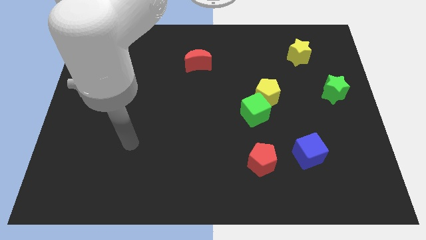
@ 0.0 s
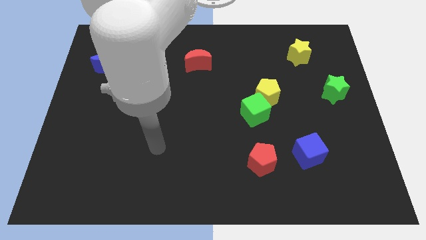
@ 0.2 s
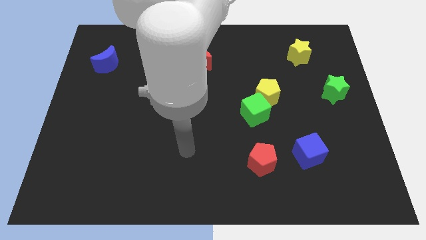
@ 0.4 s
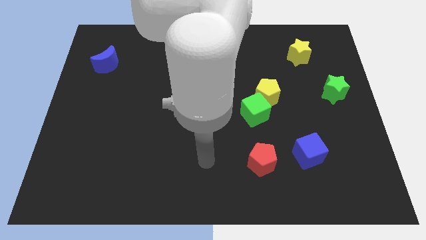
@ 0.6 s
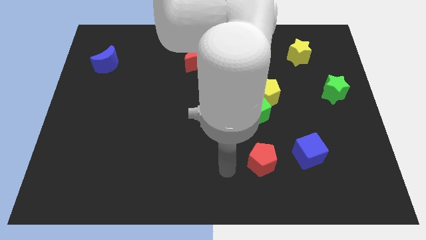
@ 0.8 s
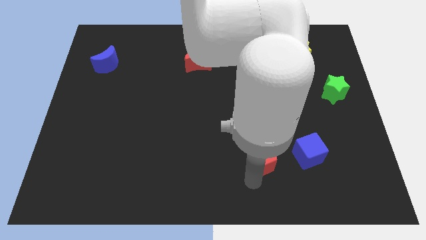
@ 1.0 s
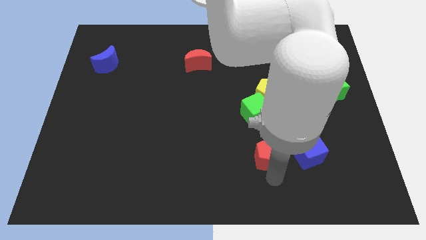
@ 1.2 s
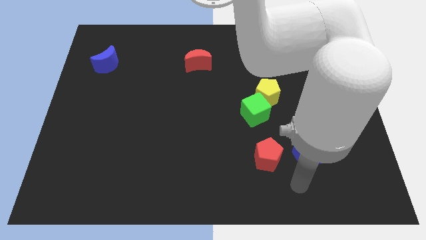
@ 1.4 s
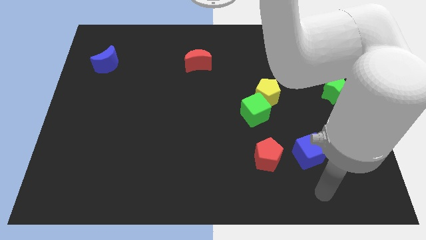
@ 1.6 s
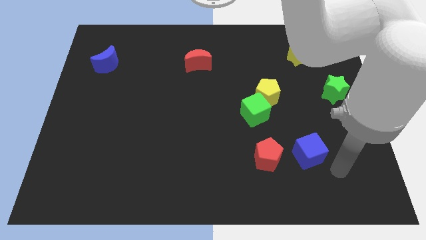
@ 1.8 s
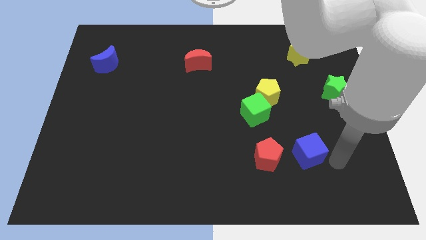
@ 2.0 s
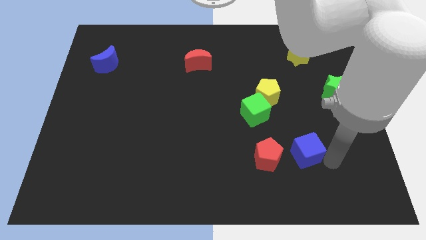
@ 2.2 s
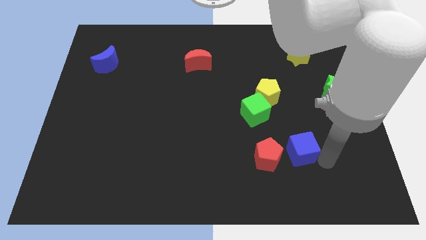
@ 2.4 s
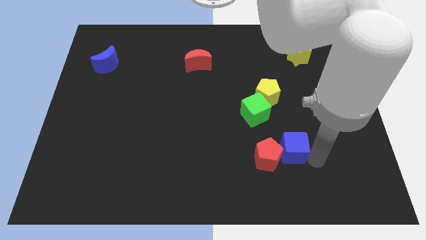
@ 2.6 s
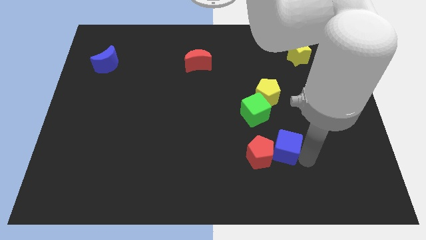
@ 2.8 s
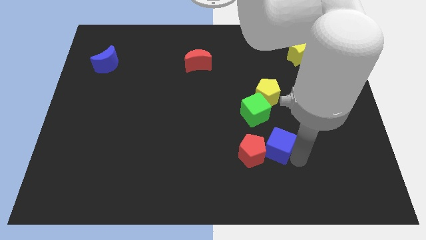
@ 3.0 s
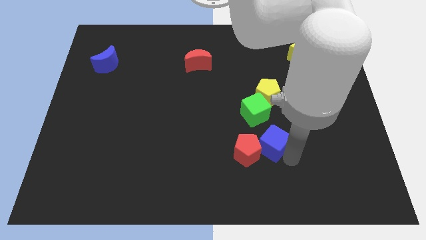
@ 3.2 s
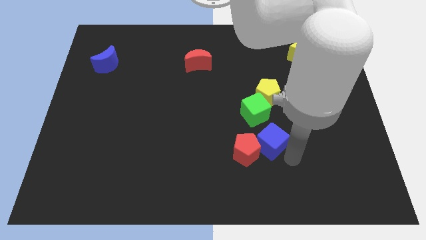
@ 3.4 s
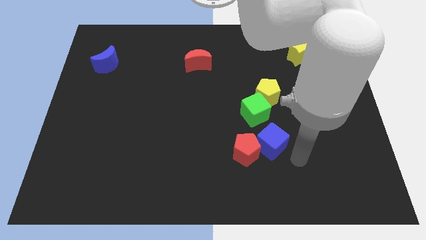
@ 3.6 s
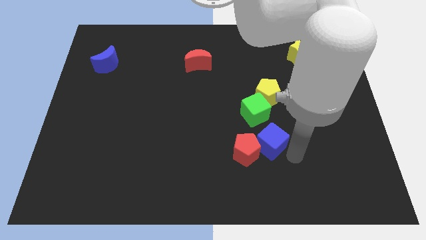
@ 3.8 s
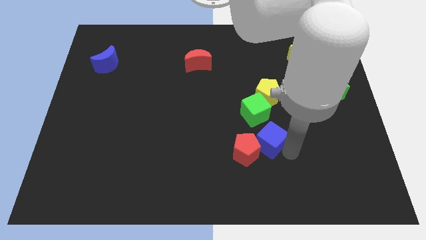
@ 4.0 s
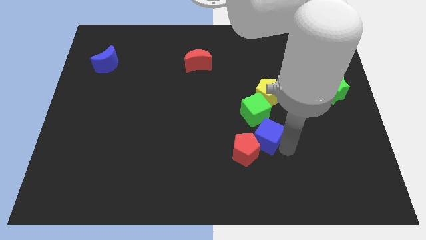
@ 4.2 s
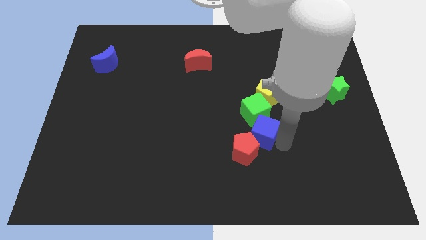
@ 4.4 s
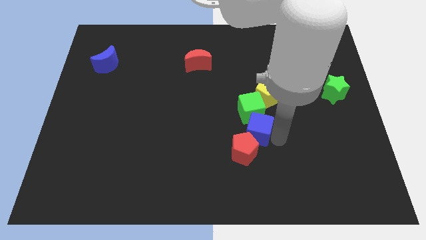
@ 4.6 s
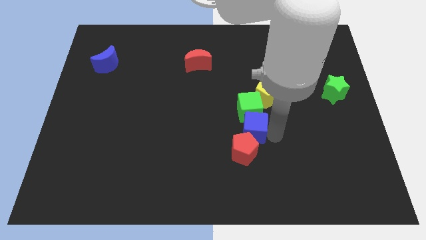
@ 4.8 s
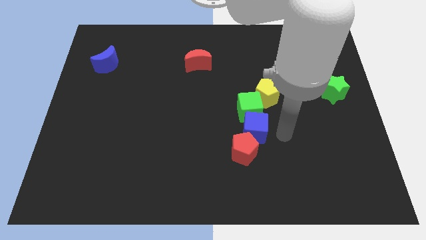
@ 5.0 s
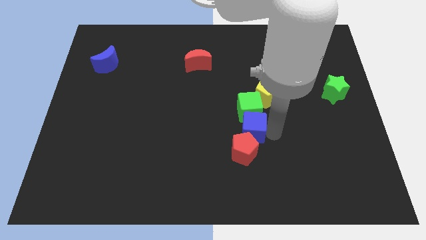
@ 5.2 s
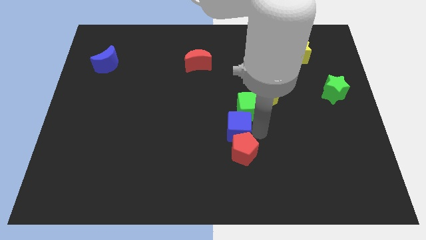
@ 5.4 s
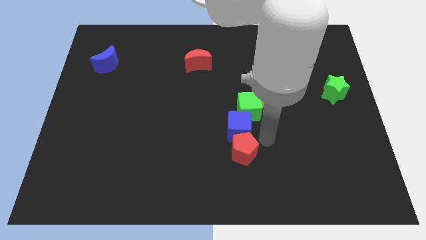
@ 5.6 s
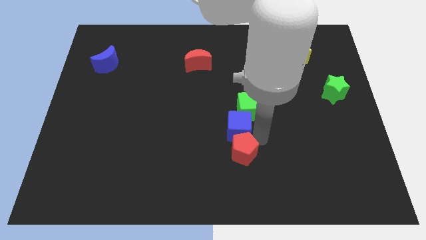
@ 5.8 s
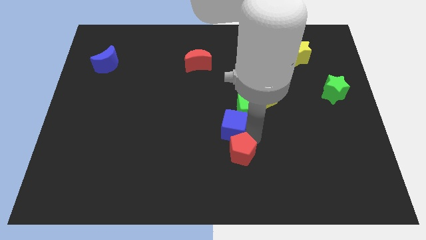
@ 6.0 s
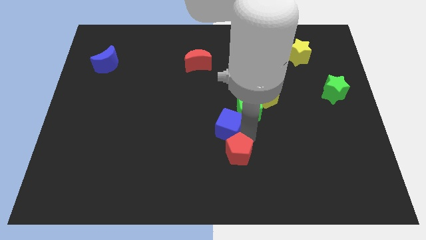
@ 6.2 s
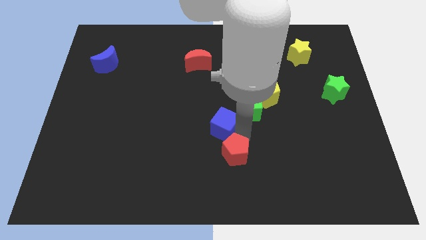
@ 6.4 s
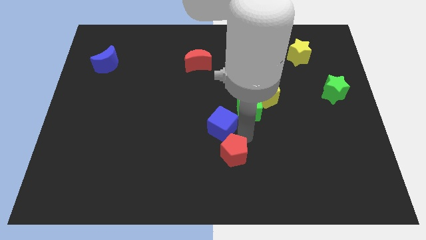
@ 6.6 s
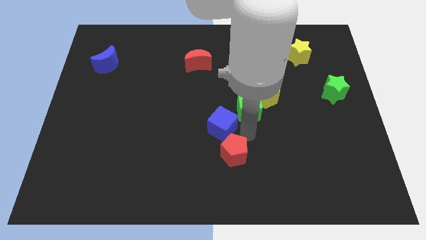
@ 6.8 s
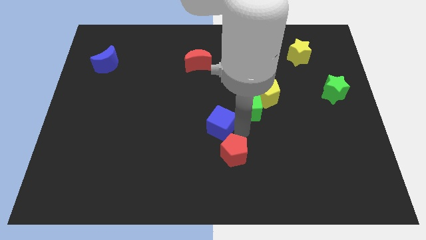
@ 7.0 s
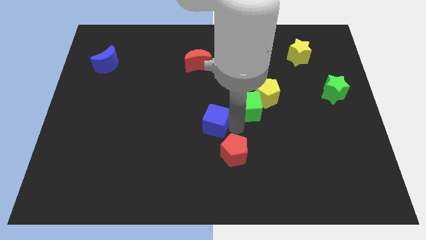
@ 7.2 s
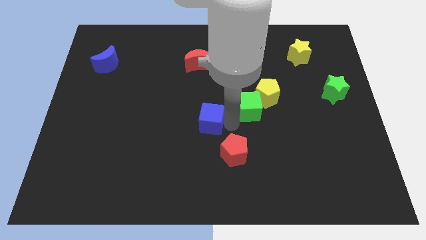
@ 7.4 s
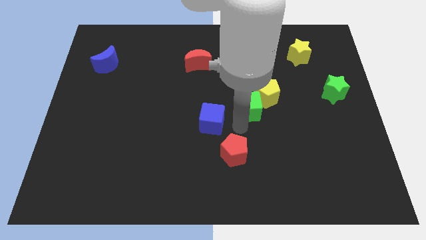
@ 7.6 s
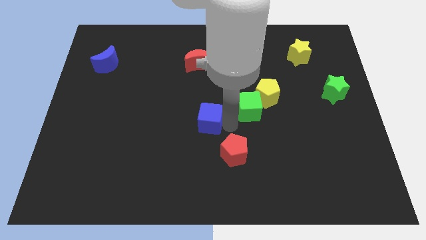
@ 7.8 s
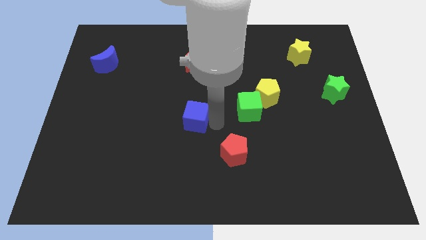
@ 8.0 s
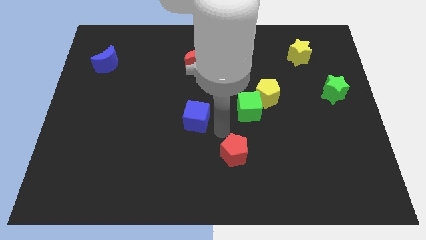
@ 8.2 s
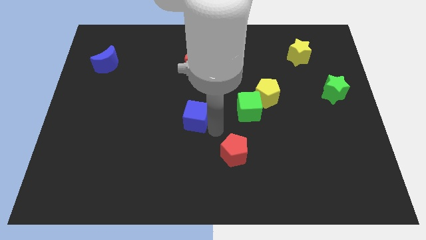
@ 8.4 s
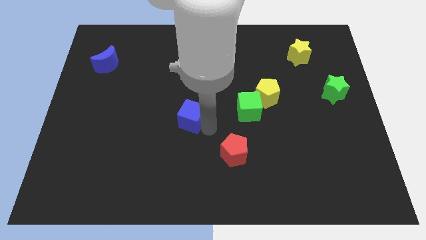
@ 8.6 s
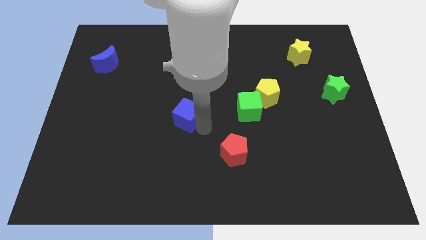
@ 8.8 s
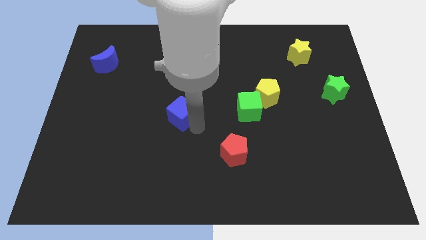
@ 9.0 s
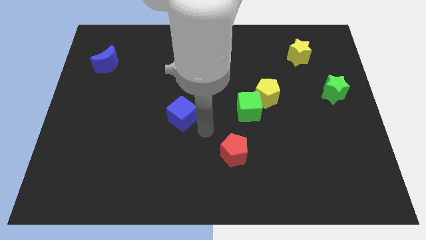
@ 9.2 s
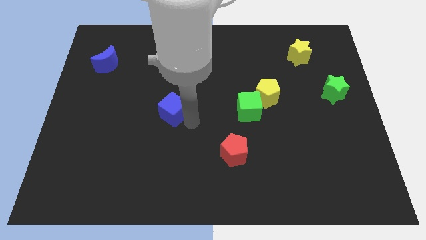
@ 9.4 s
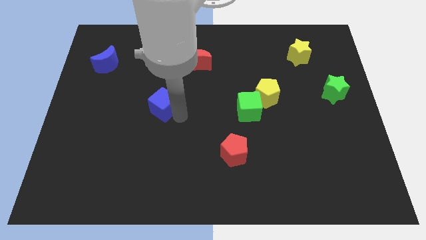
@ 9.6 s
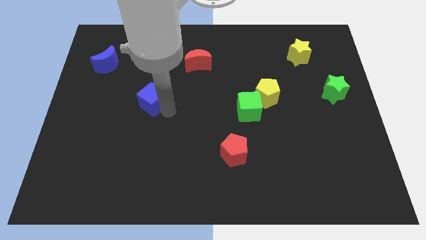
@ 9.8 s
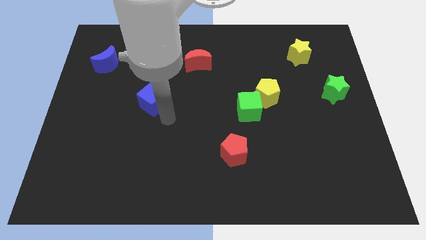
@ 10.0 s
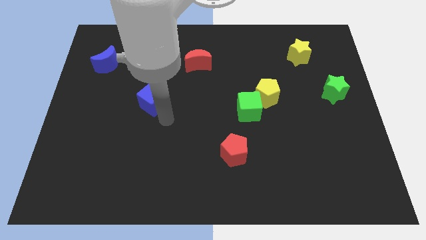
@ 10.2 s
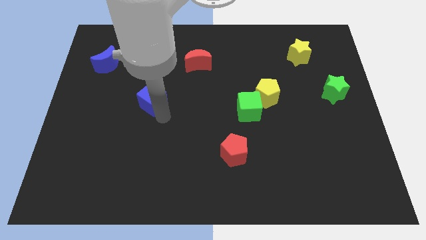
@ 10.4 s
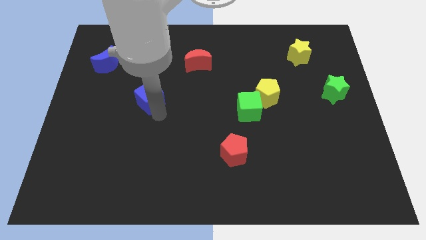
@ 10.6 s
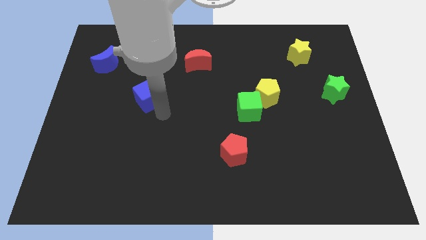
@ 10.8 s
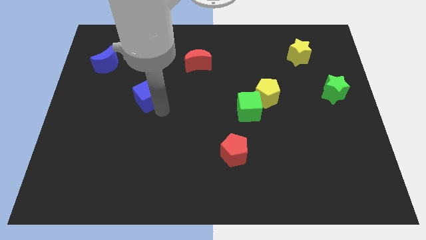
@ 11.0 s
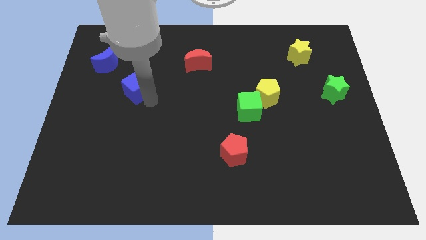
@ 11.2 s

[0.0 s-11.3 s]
push the blue cube to the bottom right side of the blue moon

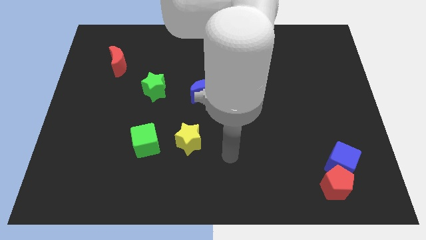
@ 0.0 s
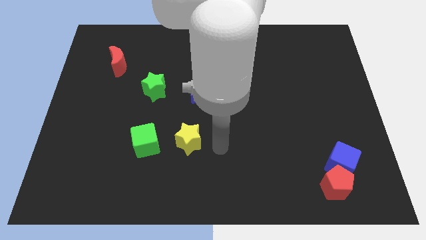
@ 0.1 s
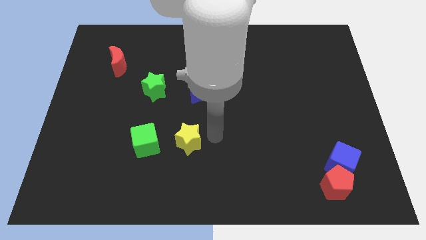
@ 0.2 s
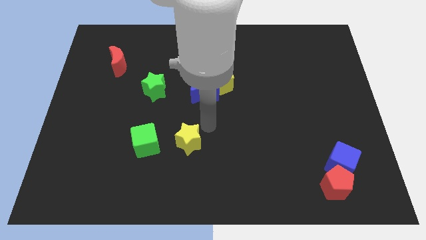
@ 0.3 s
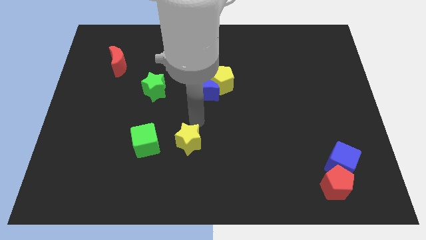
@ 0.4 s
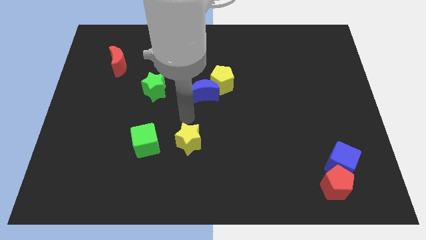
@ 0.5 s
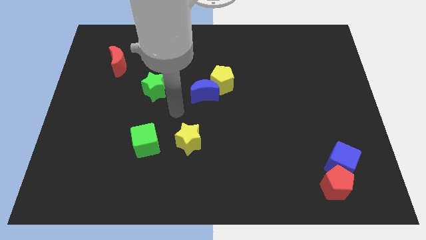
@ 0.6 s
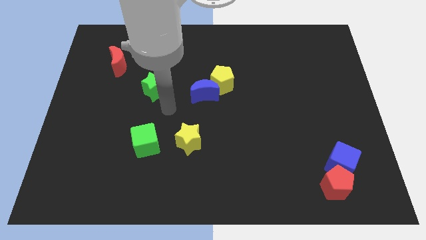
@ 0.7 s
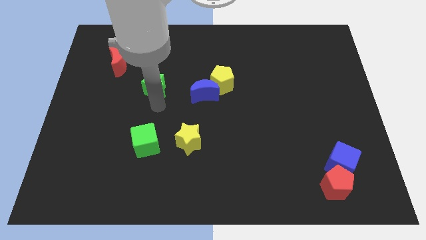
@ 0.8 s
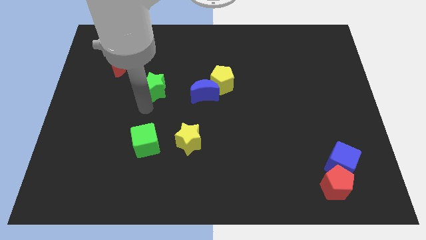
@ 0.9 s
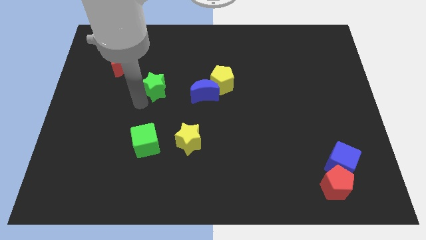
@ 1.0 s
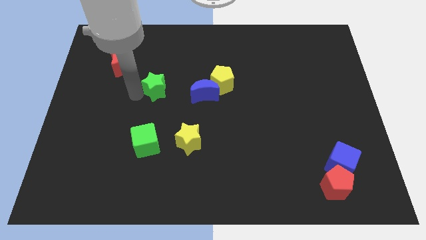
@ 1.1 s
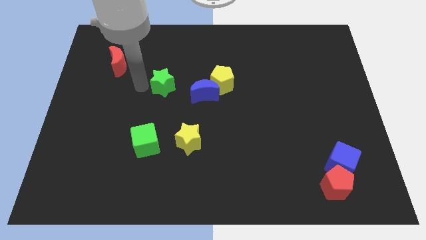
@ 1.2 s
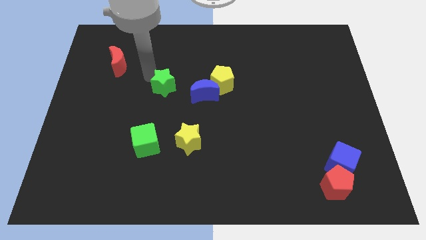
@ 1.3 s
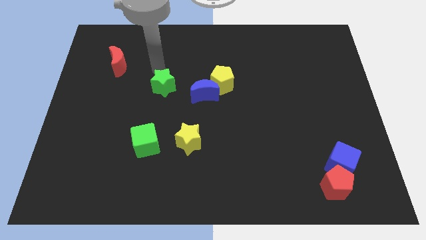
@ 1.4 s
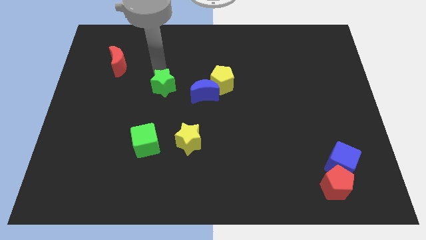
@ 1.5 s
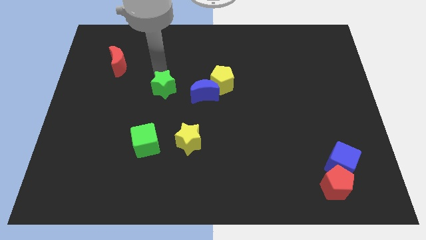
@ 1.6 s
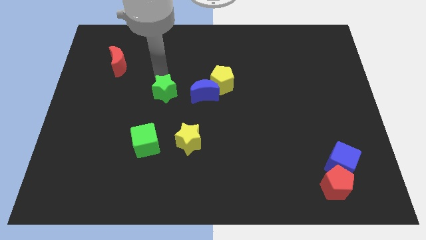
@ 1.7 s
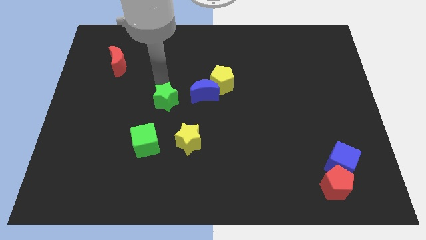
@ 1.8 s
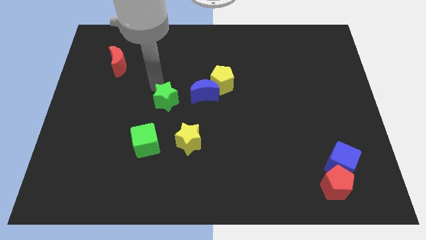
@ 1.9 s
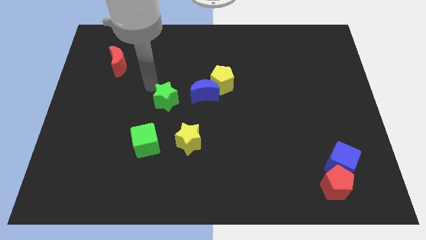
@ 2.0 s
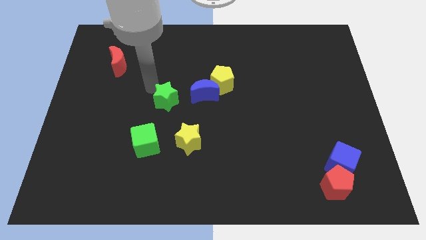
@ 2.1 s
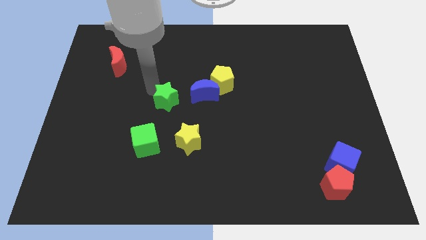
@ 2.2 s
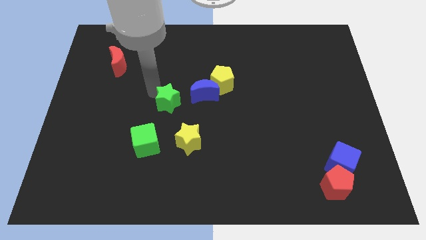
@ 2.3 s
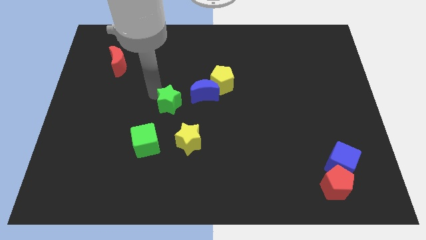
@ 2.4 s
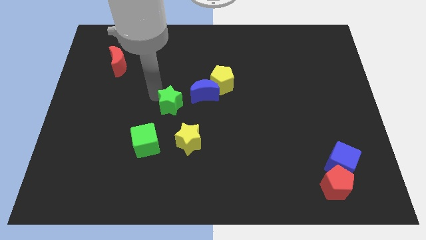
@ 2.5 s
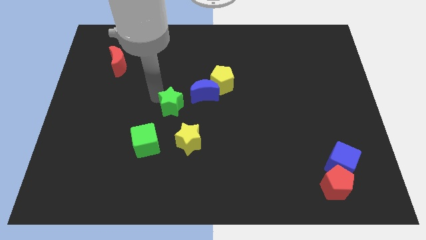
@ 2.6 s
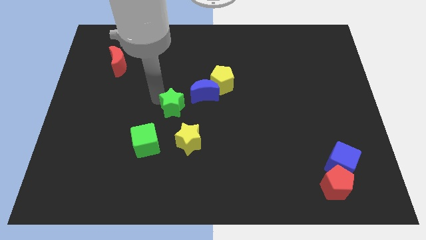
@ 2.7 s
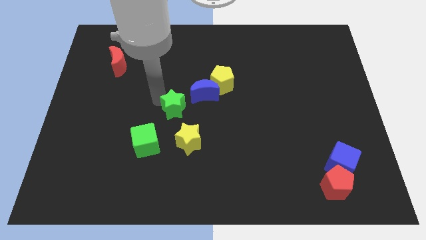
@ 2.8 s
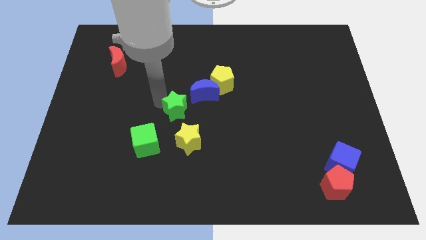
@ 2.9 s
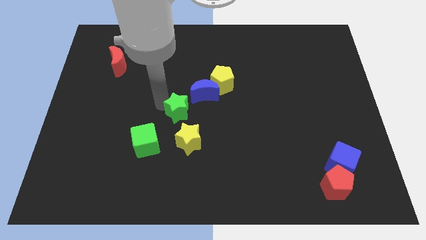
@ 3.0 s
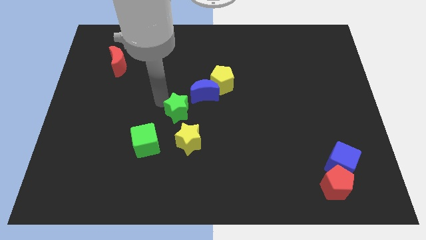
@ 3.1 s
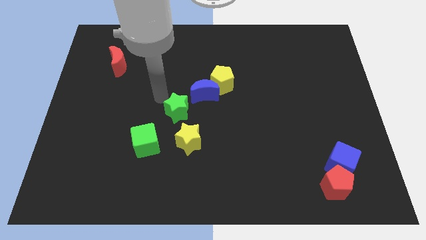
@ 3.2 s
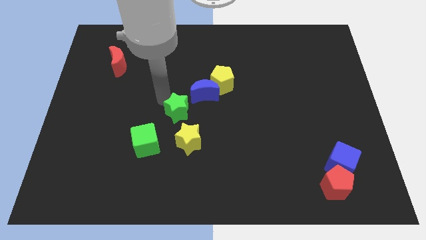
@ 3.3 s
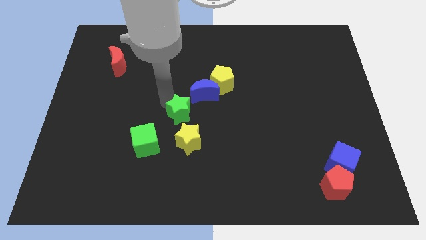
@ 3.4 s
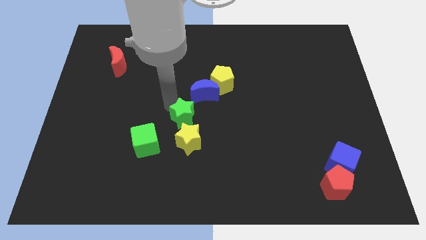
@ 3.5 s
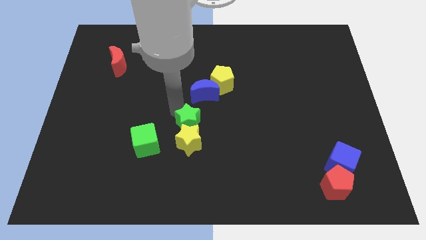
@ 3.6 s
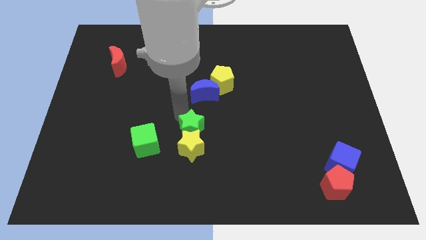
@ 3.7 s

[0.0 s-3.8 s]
move the green star just right of the green cube
